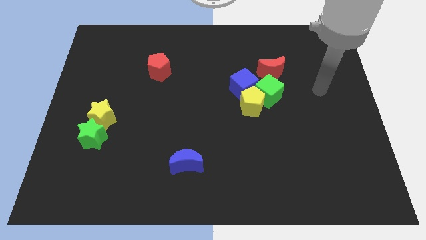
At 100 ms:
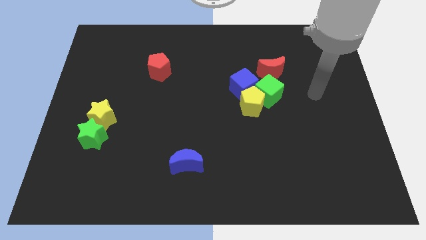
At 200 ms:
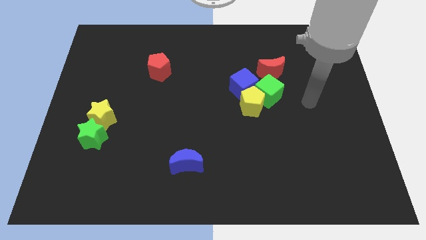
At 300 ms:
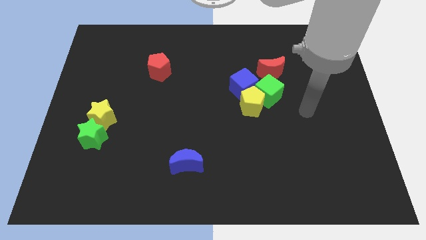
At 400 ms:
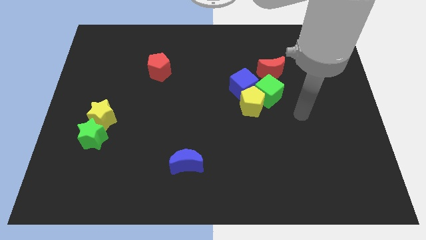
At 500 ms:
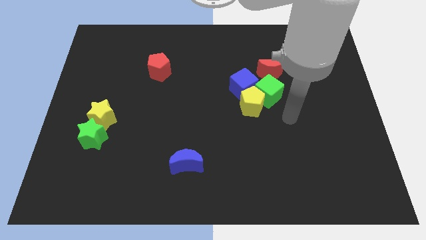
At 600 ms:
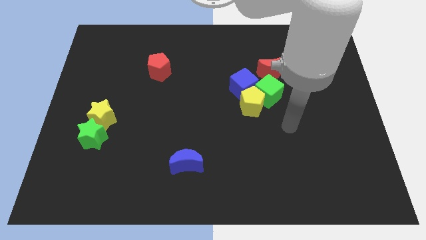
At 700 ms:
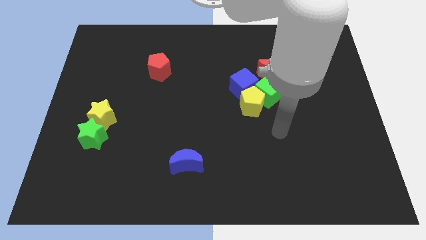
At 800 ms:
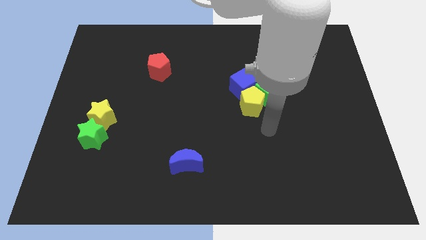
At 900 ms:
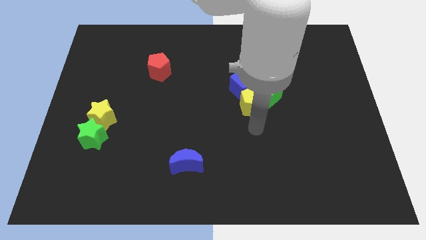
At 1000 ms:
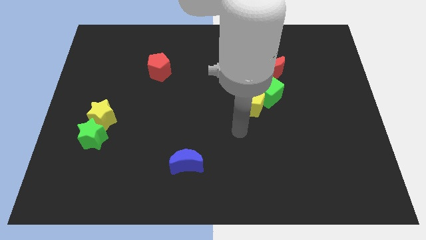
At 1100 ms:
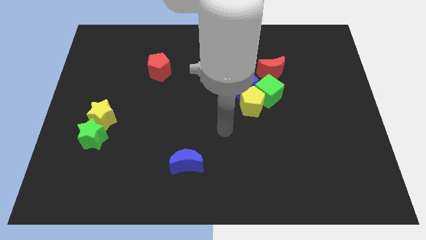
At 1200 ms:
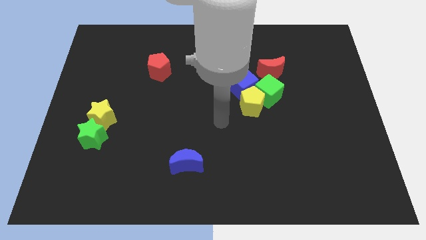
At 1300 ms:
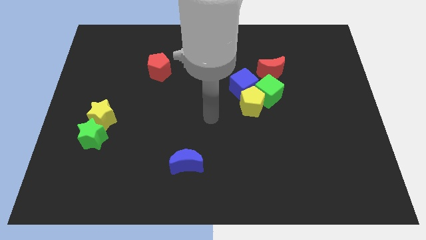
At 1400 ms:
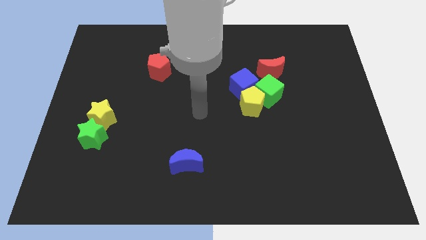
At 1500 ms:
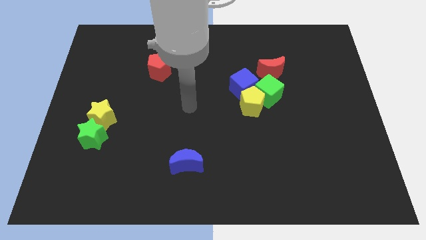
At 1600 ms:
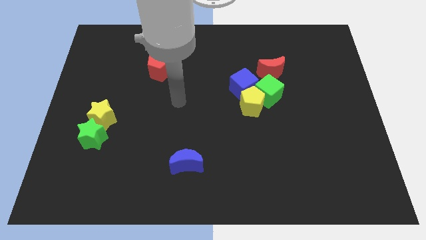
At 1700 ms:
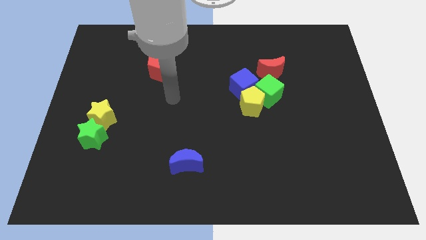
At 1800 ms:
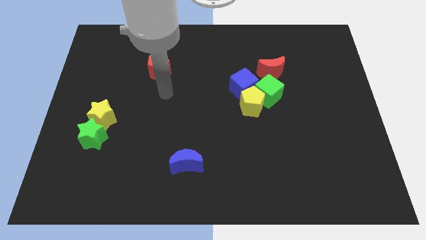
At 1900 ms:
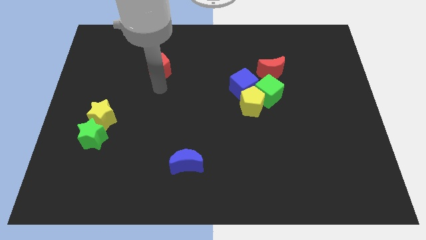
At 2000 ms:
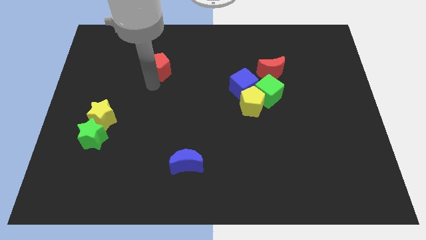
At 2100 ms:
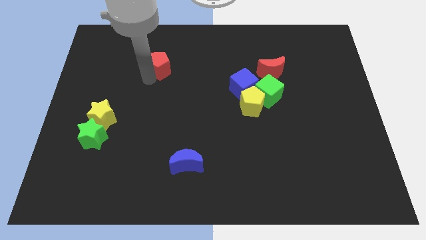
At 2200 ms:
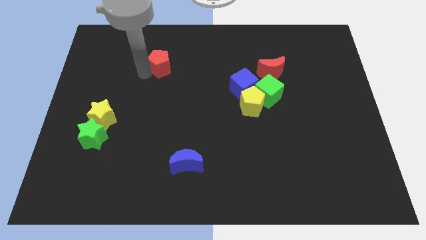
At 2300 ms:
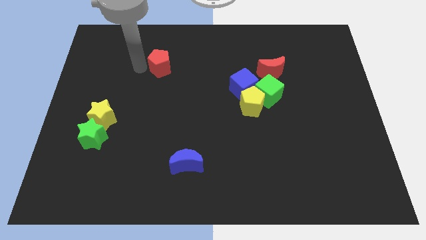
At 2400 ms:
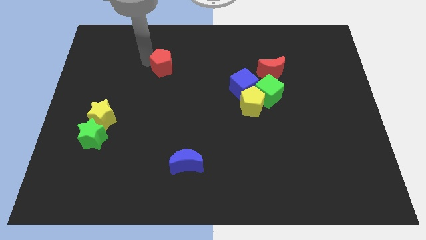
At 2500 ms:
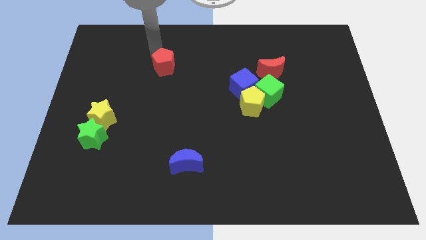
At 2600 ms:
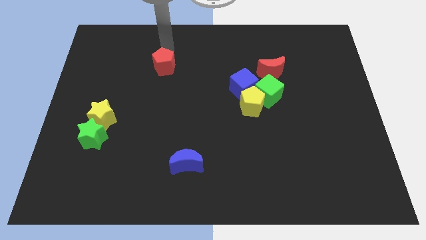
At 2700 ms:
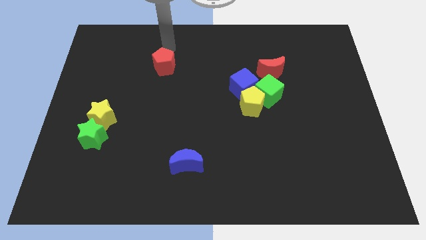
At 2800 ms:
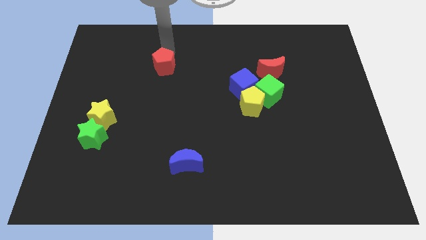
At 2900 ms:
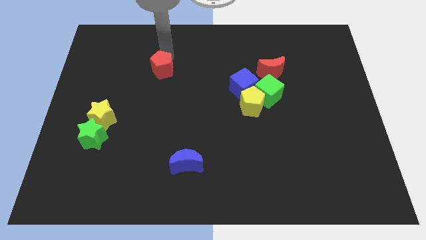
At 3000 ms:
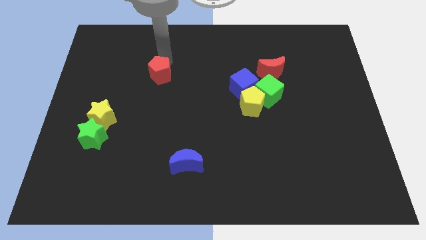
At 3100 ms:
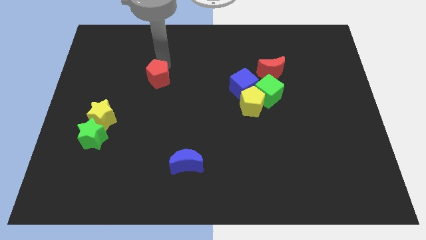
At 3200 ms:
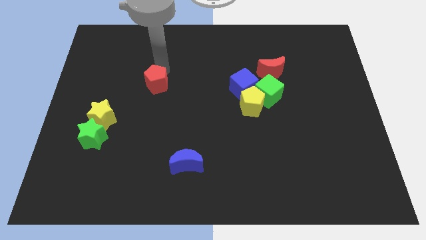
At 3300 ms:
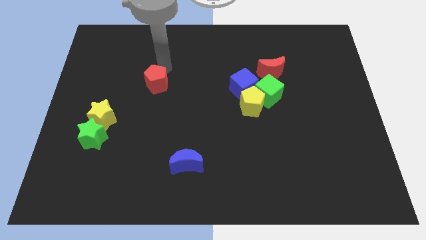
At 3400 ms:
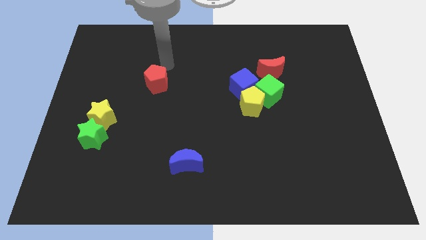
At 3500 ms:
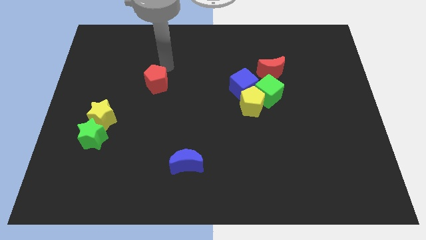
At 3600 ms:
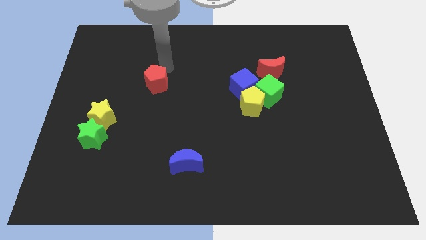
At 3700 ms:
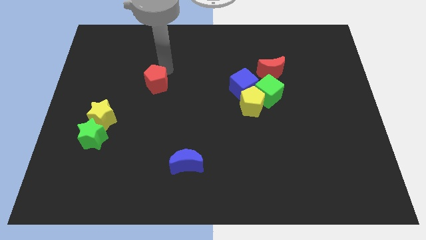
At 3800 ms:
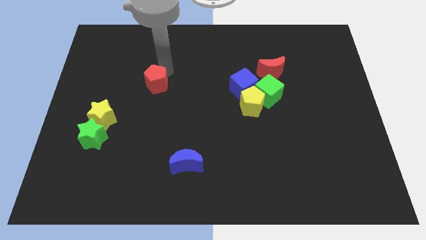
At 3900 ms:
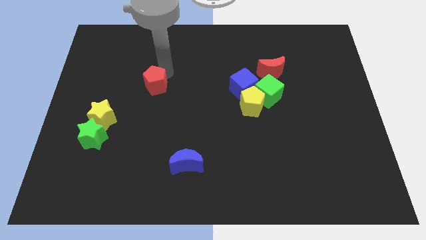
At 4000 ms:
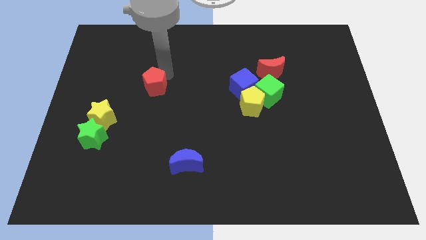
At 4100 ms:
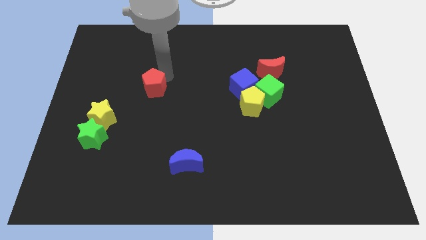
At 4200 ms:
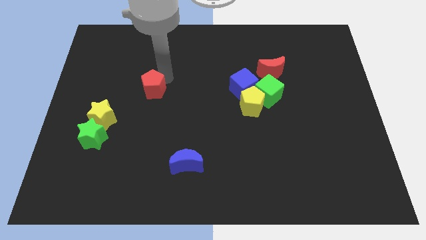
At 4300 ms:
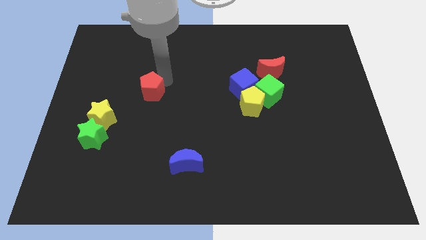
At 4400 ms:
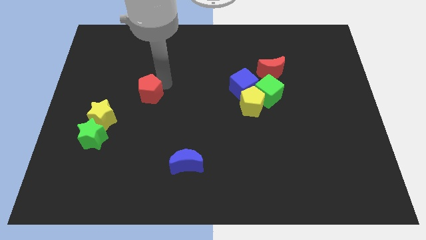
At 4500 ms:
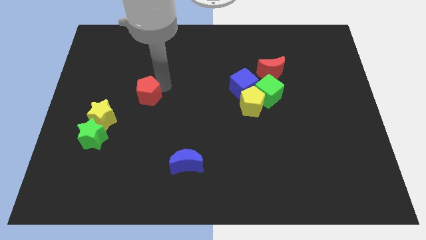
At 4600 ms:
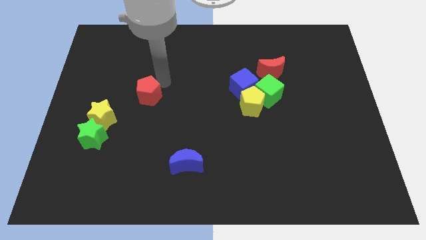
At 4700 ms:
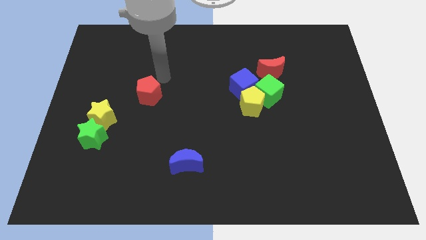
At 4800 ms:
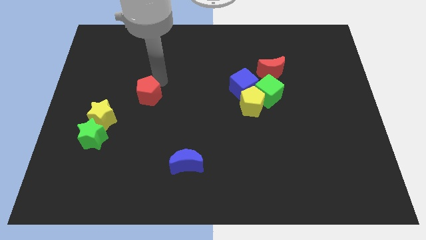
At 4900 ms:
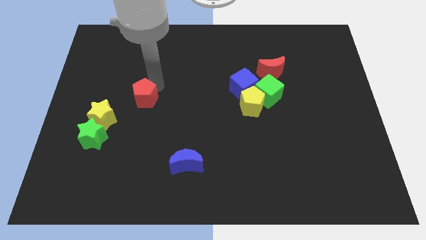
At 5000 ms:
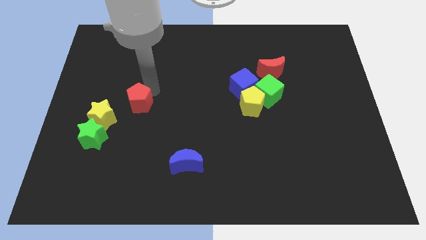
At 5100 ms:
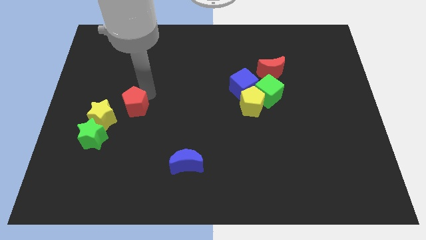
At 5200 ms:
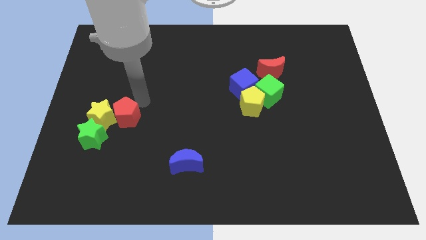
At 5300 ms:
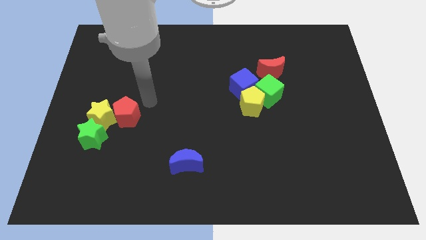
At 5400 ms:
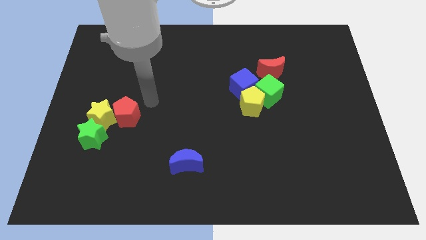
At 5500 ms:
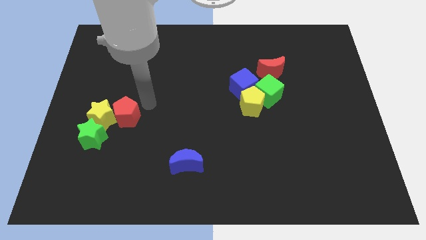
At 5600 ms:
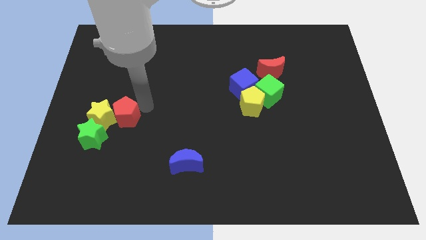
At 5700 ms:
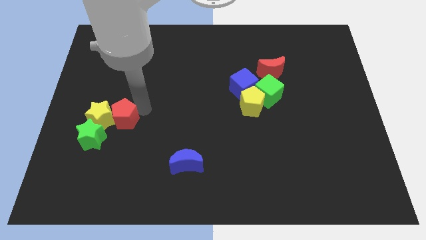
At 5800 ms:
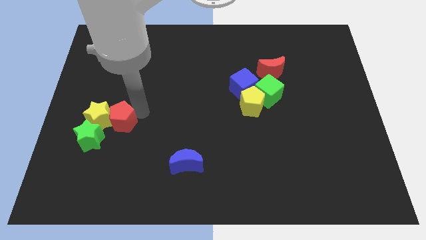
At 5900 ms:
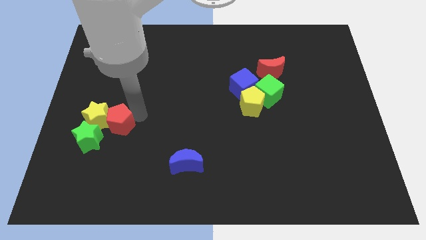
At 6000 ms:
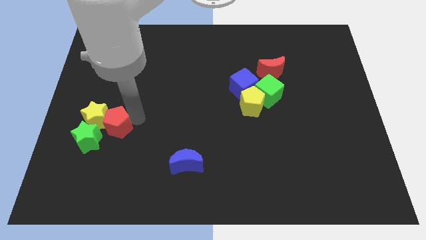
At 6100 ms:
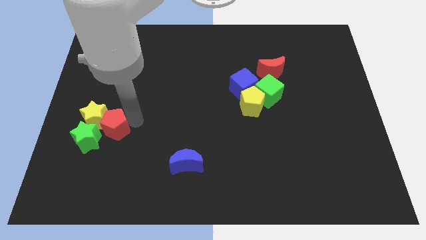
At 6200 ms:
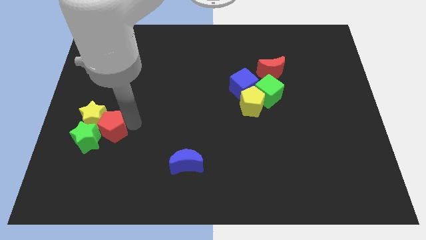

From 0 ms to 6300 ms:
push the red pentagon towards the green star

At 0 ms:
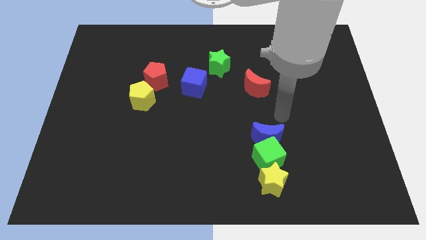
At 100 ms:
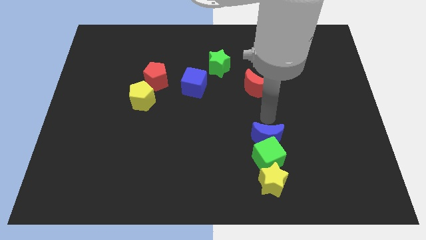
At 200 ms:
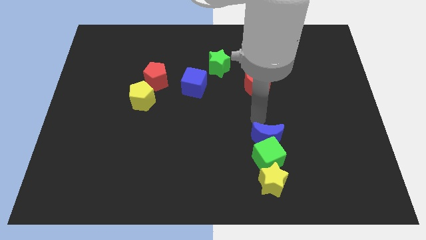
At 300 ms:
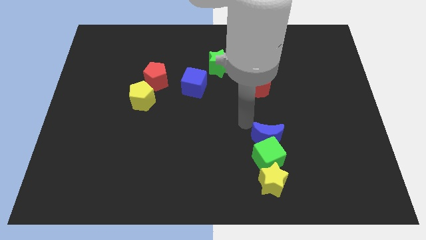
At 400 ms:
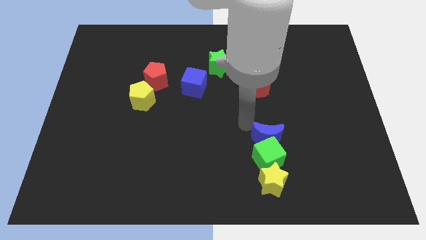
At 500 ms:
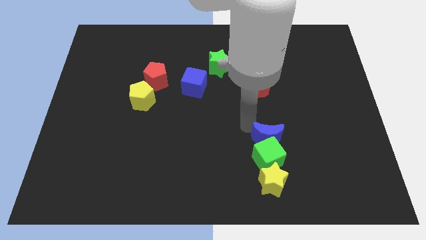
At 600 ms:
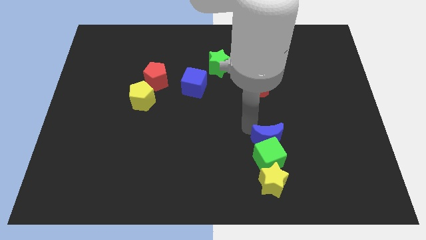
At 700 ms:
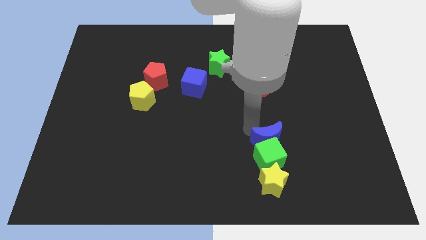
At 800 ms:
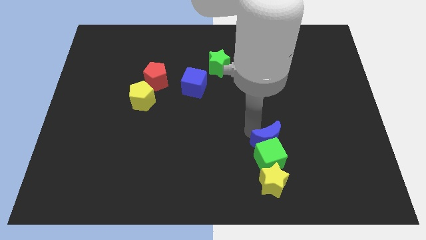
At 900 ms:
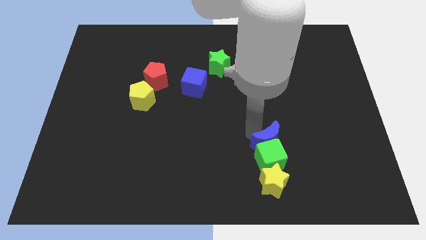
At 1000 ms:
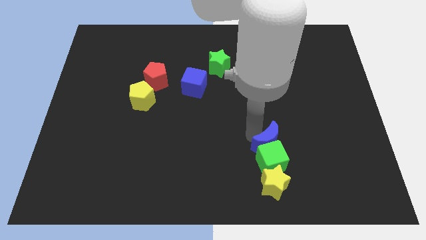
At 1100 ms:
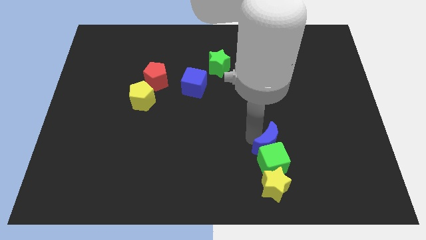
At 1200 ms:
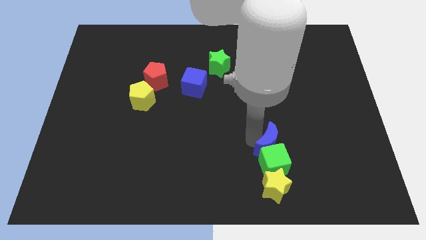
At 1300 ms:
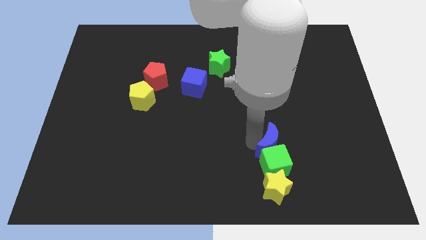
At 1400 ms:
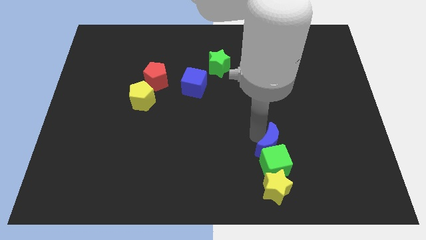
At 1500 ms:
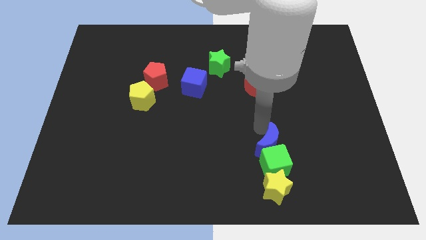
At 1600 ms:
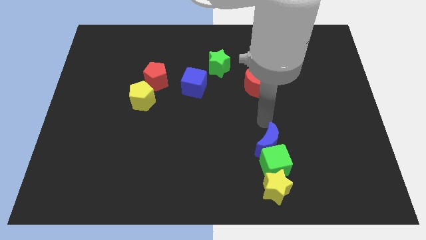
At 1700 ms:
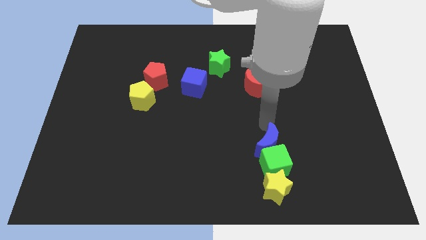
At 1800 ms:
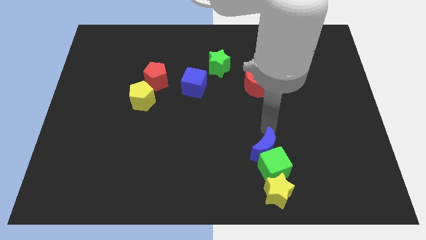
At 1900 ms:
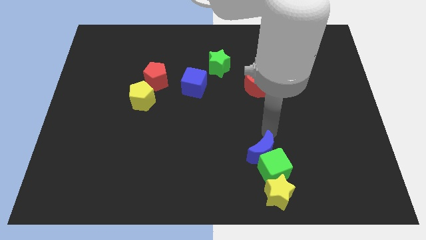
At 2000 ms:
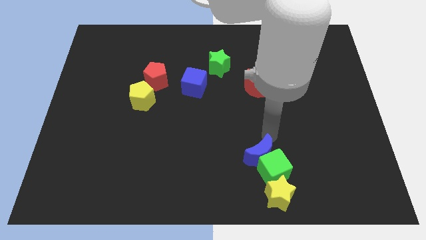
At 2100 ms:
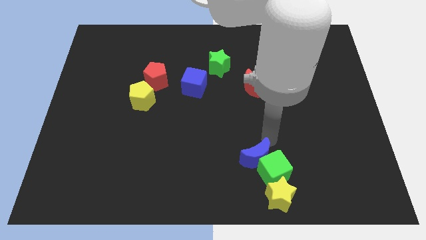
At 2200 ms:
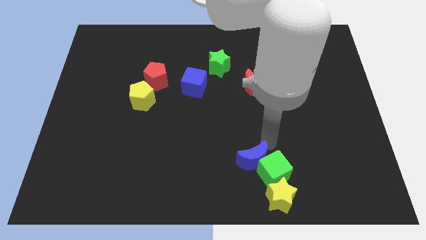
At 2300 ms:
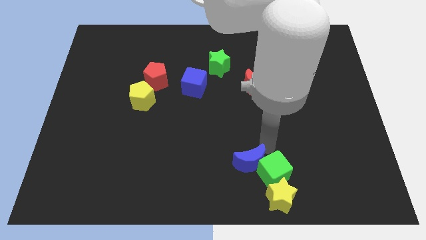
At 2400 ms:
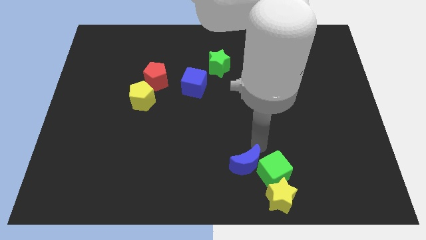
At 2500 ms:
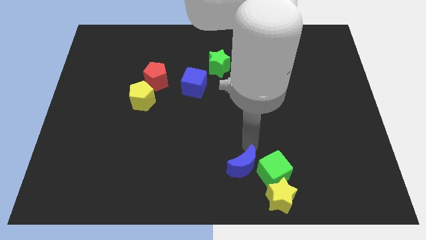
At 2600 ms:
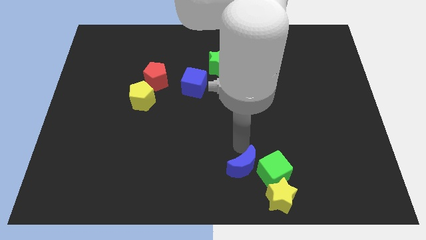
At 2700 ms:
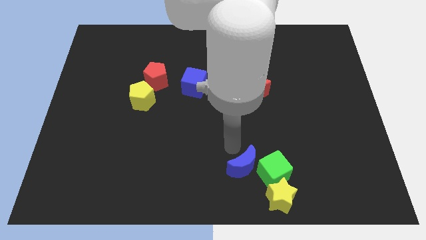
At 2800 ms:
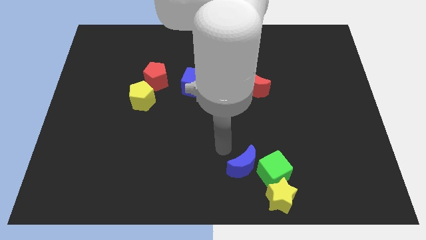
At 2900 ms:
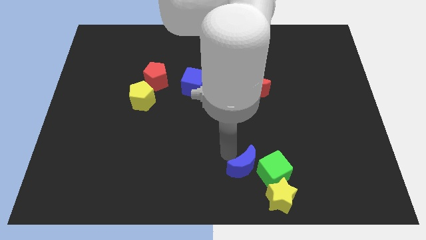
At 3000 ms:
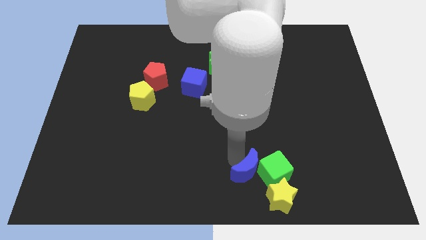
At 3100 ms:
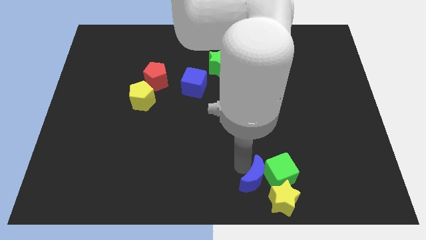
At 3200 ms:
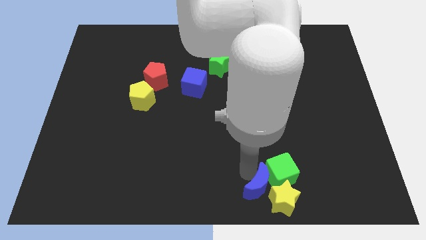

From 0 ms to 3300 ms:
push the blue moon next to the yellow star
